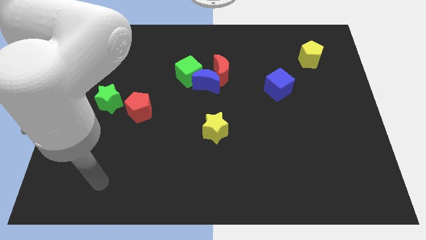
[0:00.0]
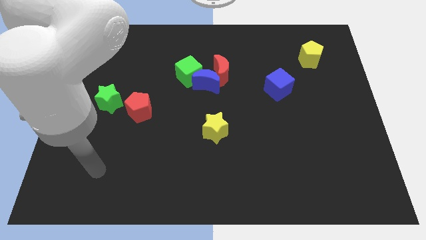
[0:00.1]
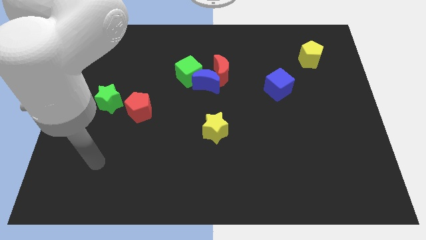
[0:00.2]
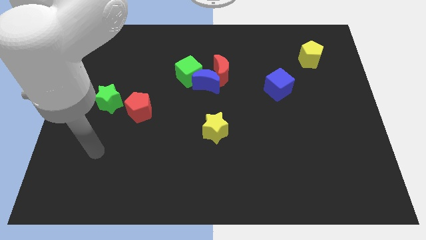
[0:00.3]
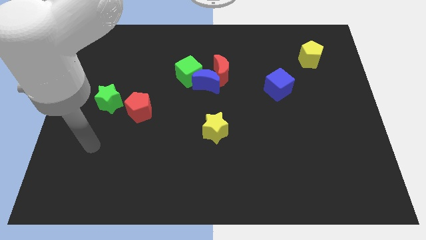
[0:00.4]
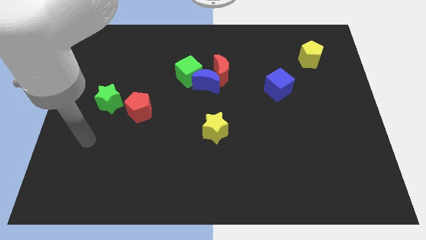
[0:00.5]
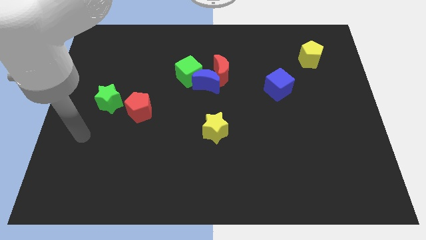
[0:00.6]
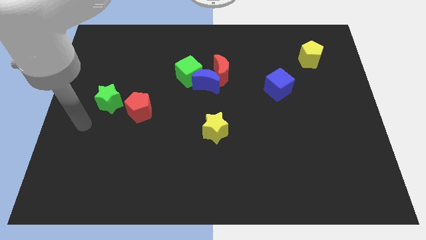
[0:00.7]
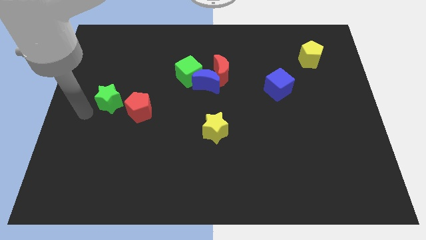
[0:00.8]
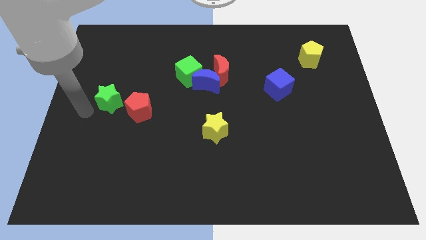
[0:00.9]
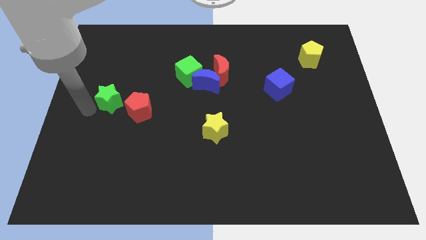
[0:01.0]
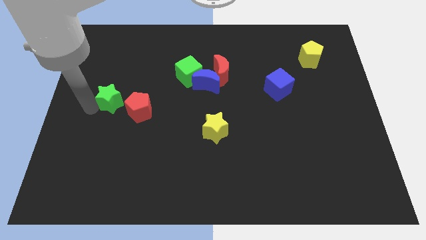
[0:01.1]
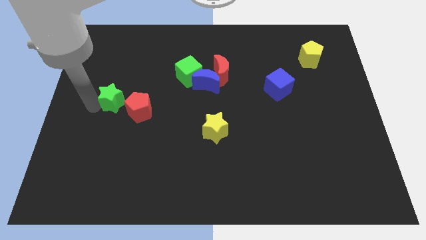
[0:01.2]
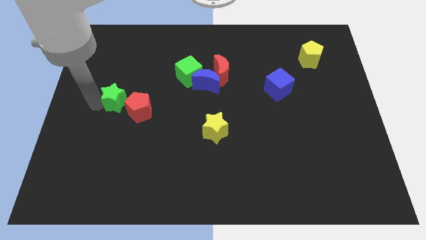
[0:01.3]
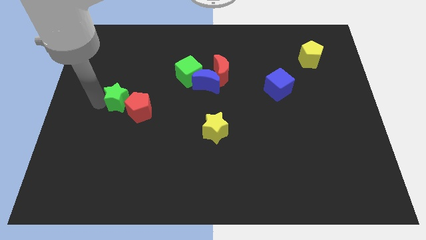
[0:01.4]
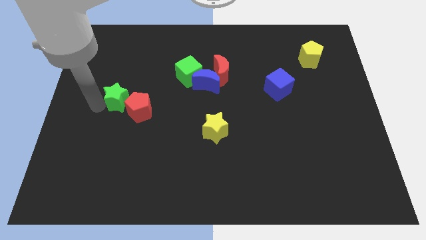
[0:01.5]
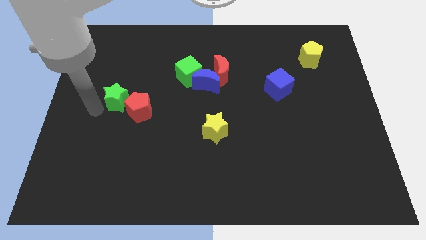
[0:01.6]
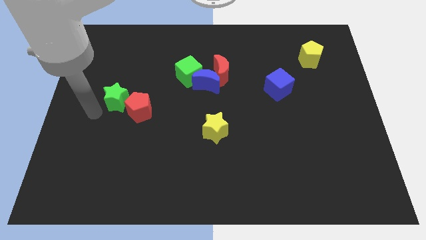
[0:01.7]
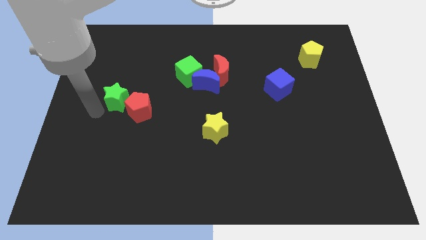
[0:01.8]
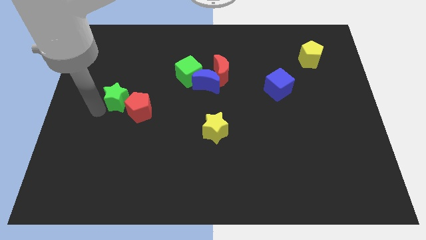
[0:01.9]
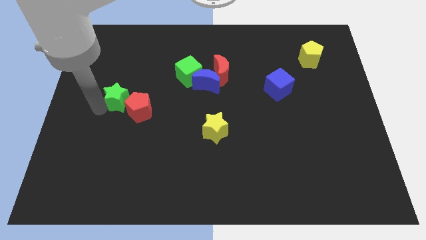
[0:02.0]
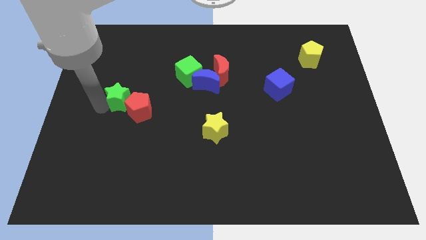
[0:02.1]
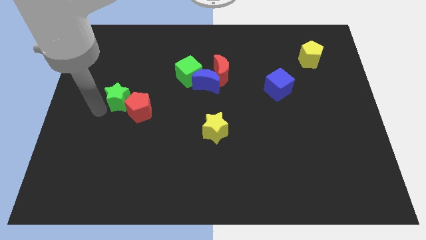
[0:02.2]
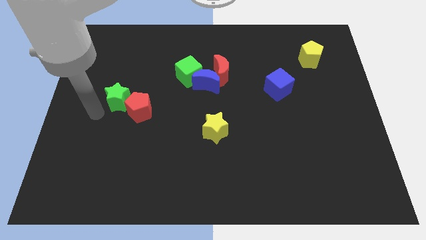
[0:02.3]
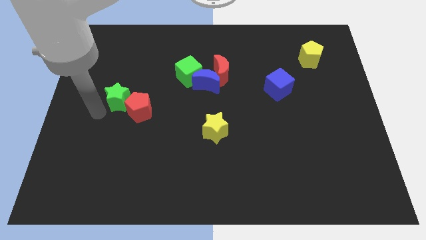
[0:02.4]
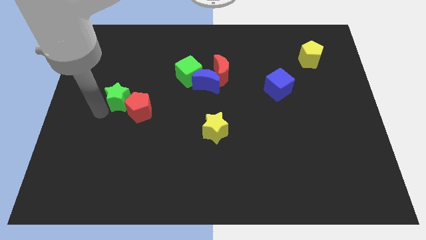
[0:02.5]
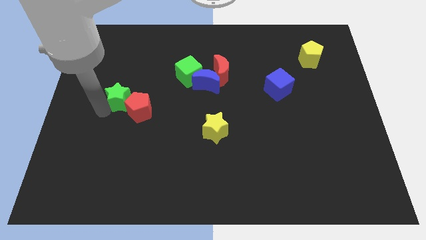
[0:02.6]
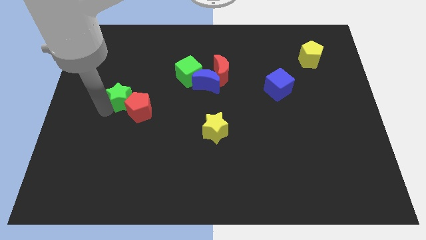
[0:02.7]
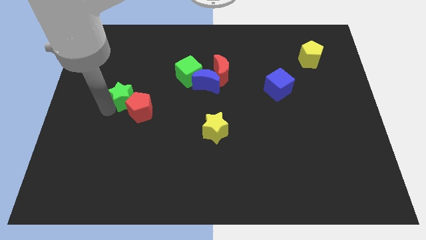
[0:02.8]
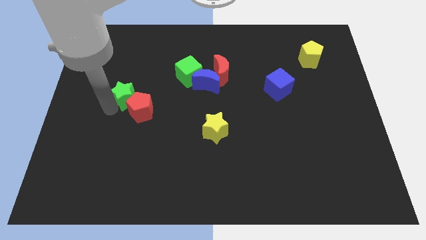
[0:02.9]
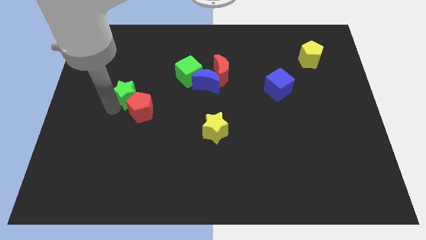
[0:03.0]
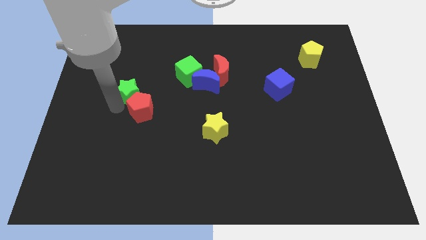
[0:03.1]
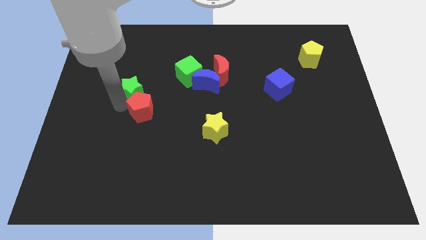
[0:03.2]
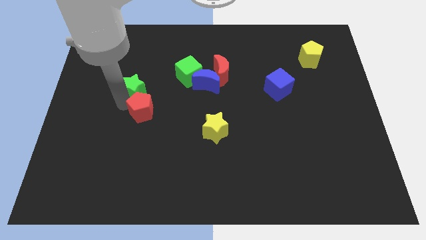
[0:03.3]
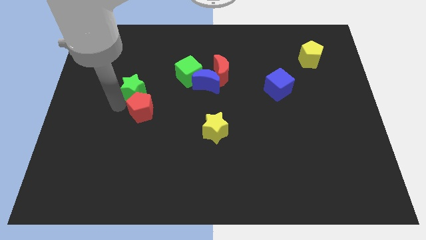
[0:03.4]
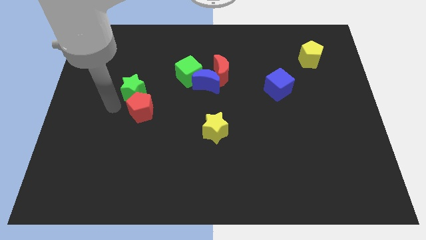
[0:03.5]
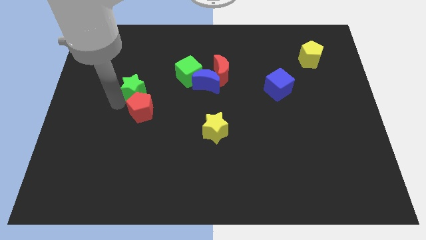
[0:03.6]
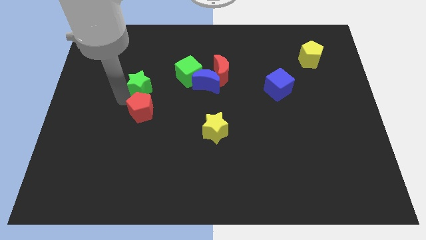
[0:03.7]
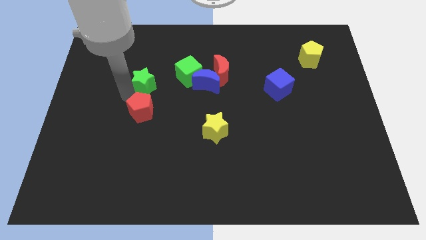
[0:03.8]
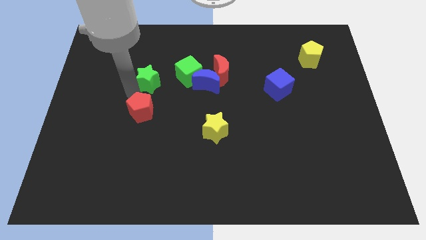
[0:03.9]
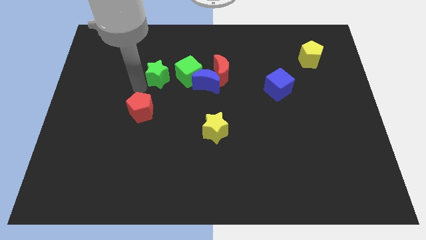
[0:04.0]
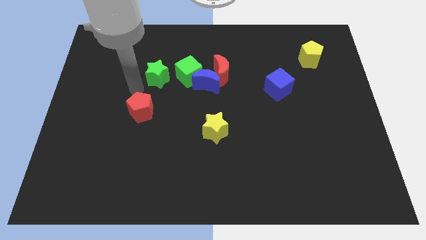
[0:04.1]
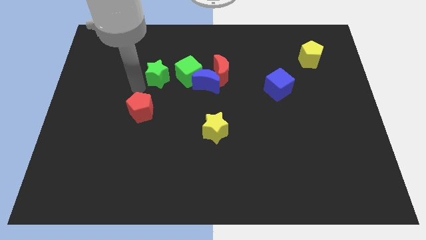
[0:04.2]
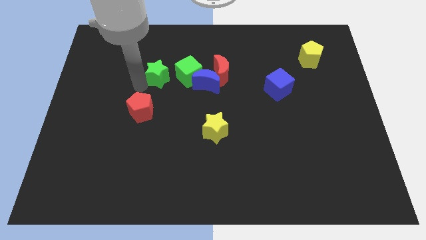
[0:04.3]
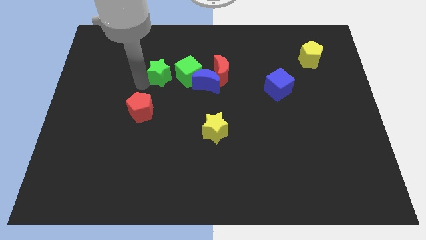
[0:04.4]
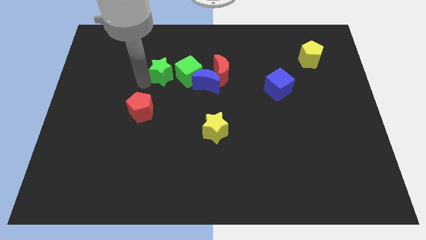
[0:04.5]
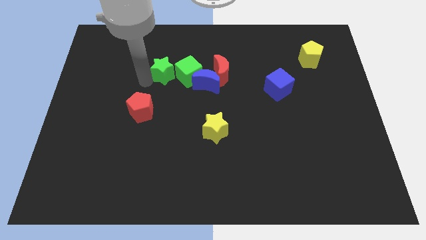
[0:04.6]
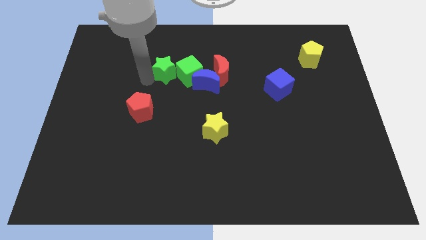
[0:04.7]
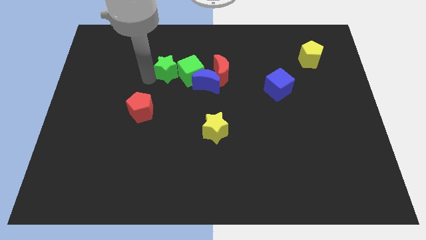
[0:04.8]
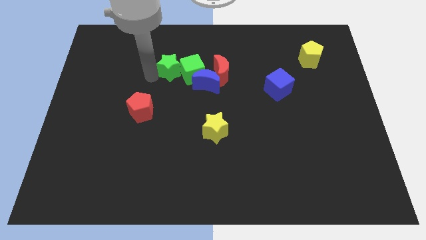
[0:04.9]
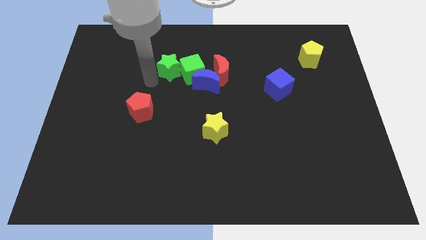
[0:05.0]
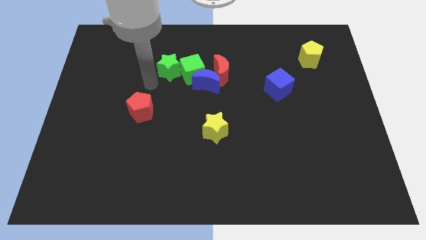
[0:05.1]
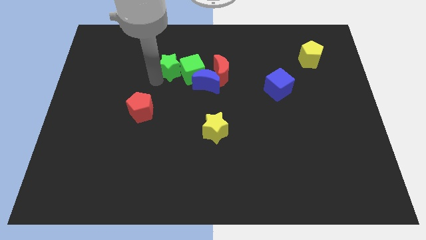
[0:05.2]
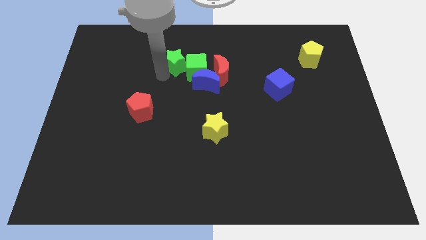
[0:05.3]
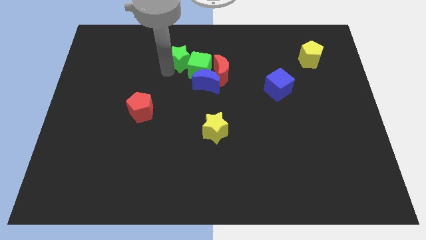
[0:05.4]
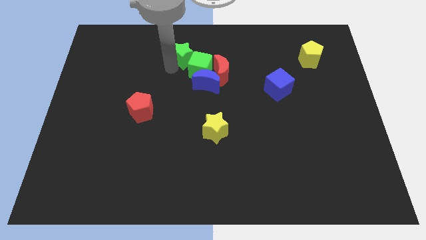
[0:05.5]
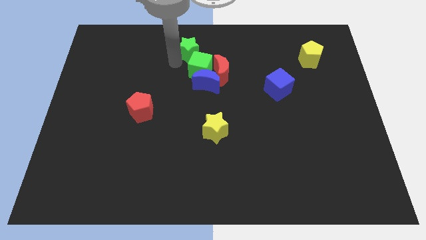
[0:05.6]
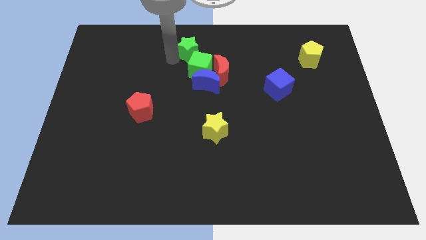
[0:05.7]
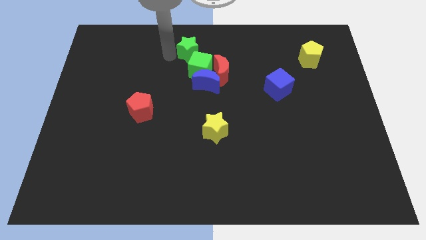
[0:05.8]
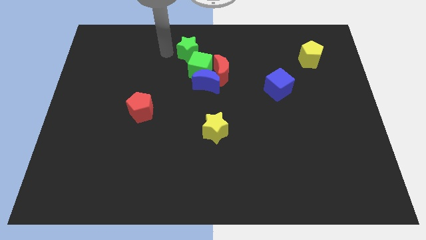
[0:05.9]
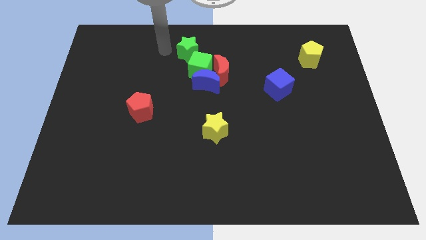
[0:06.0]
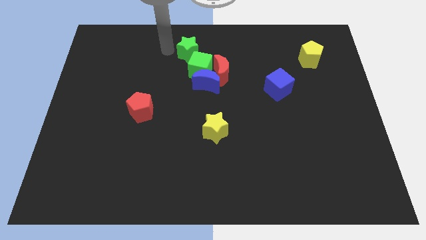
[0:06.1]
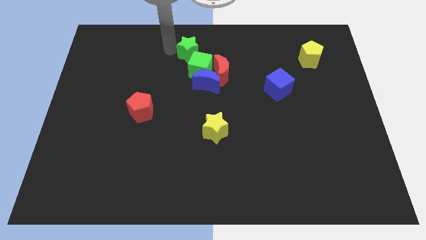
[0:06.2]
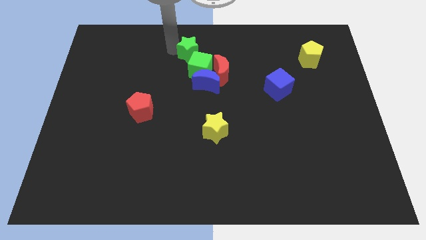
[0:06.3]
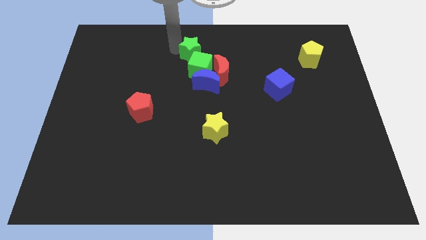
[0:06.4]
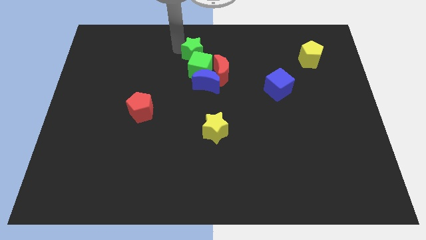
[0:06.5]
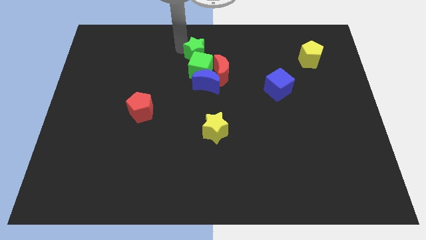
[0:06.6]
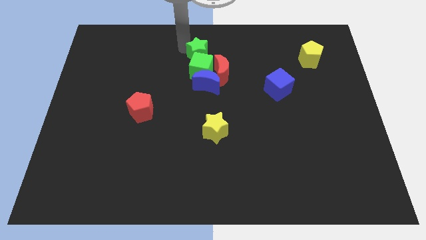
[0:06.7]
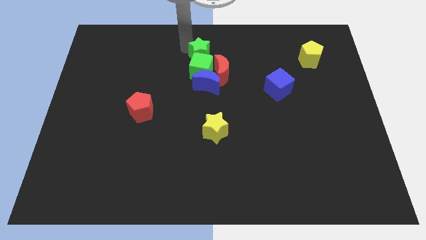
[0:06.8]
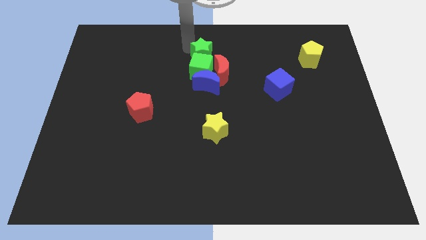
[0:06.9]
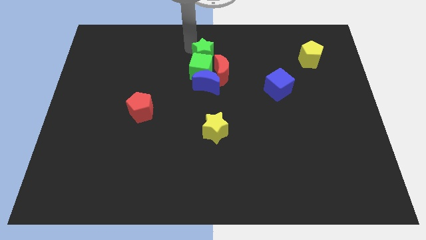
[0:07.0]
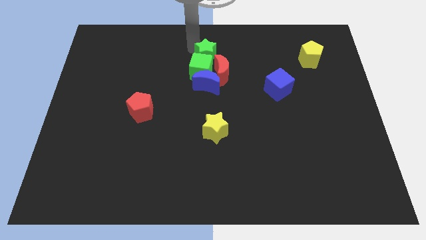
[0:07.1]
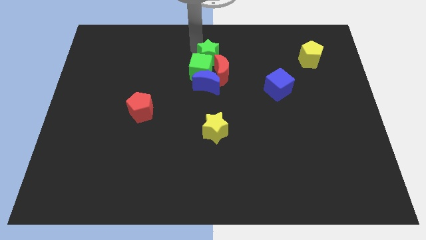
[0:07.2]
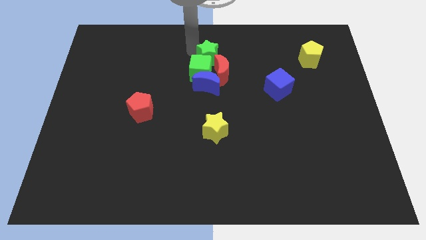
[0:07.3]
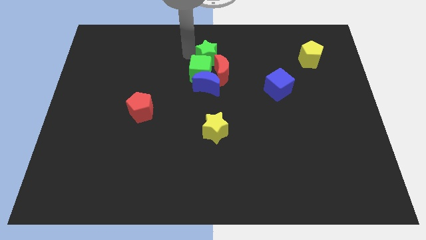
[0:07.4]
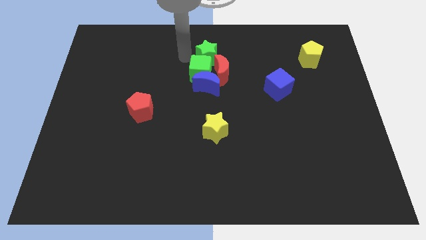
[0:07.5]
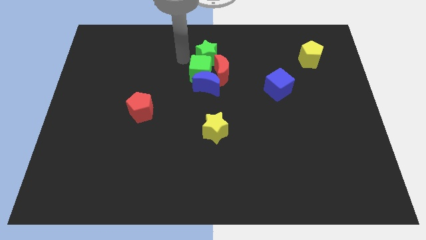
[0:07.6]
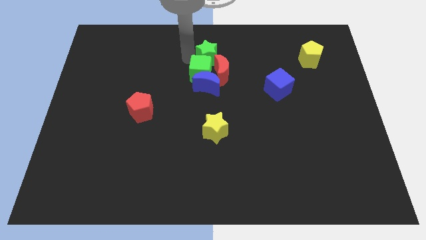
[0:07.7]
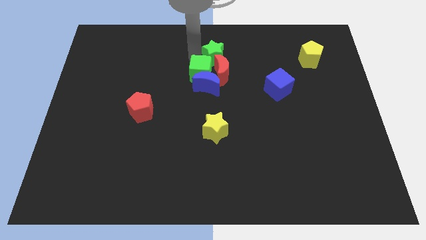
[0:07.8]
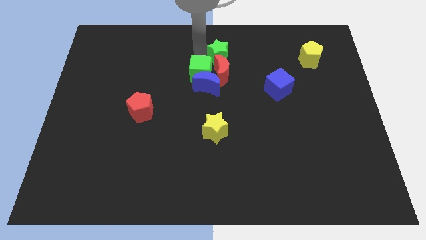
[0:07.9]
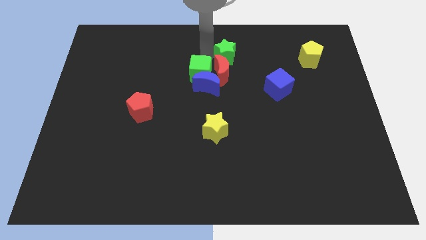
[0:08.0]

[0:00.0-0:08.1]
slide the green star diagonally up and to the right of the red moon
